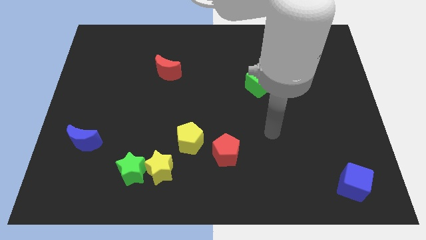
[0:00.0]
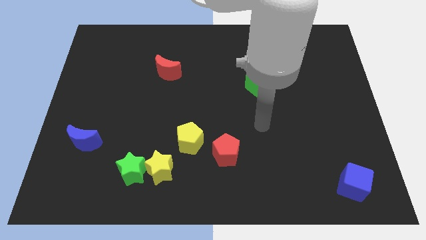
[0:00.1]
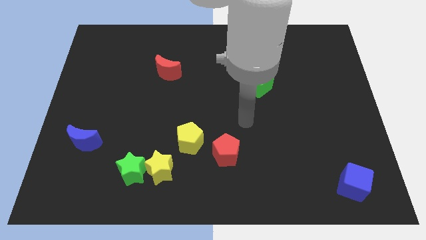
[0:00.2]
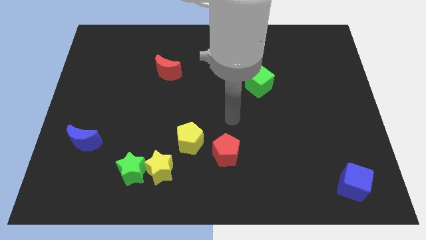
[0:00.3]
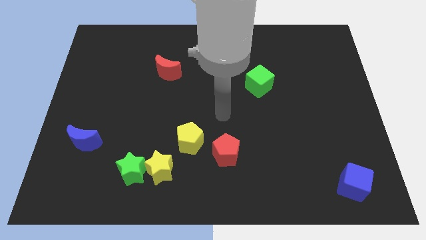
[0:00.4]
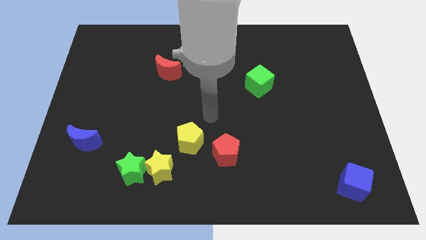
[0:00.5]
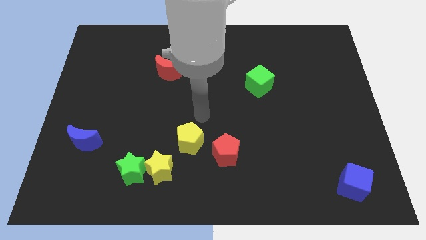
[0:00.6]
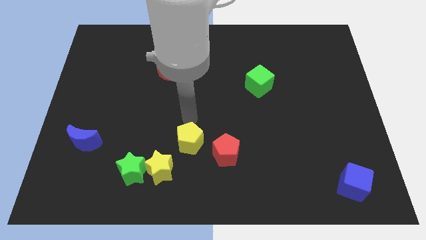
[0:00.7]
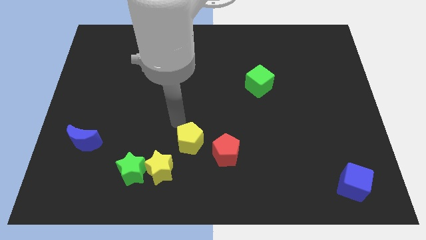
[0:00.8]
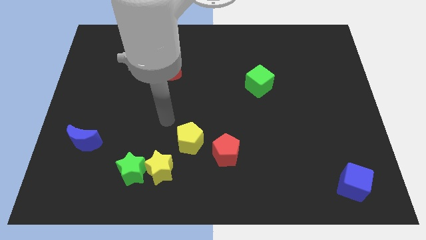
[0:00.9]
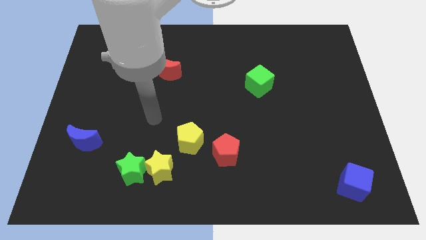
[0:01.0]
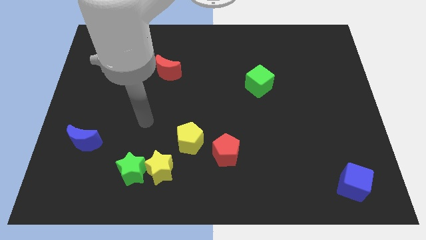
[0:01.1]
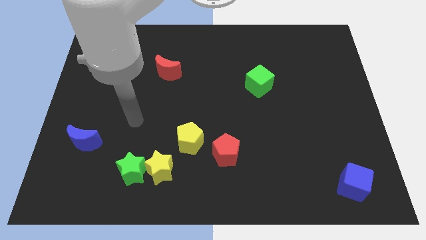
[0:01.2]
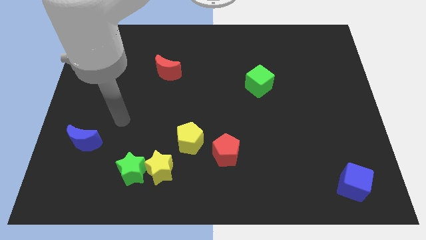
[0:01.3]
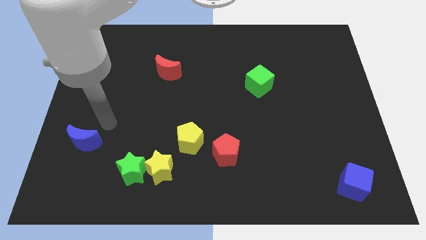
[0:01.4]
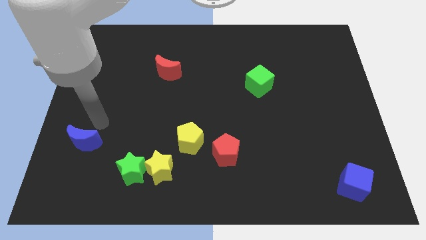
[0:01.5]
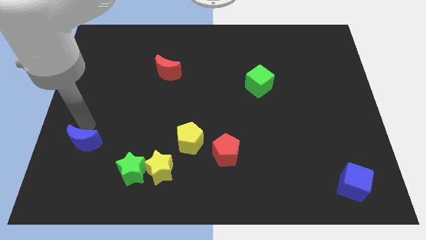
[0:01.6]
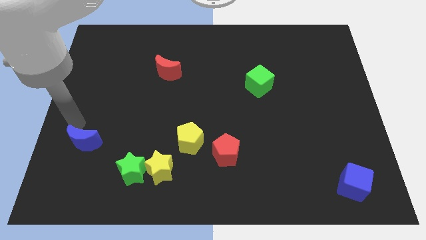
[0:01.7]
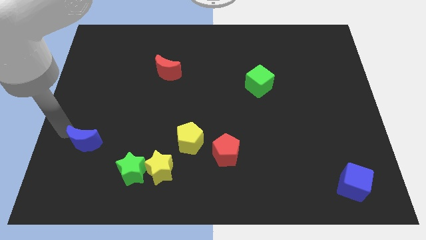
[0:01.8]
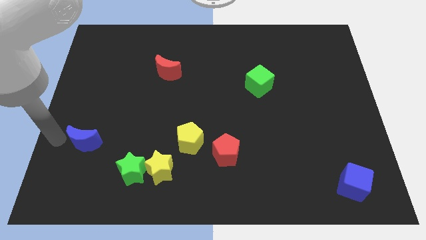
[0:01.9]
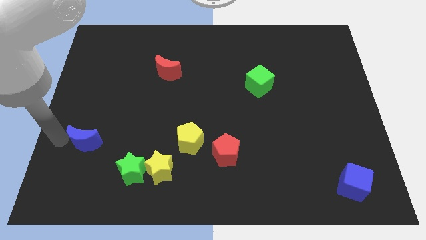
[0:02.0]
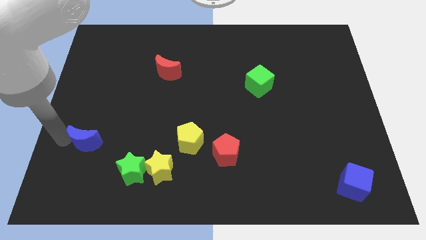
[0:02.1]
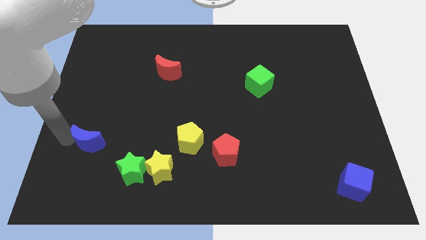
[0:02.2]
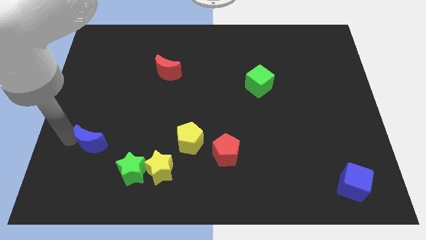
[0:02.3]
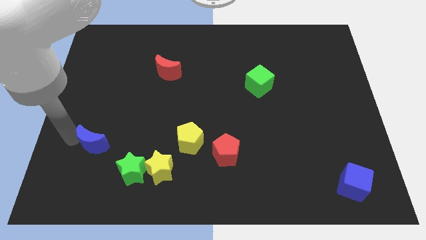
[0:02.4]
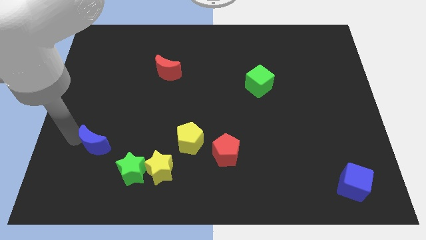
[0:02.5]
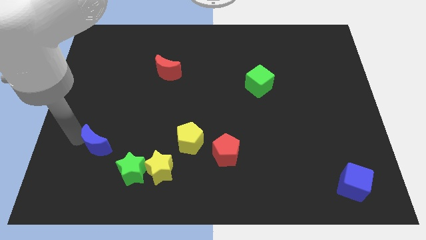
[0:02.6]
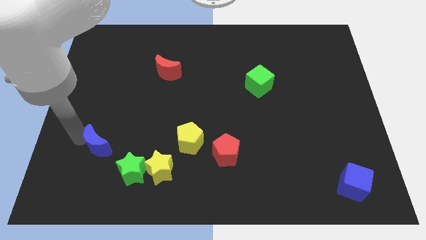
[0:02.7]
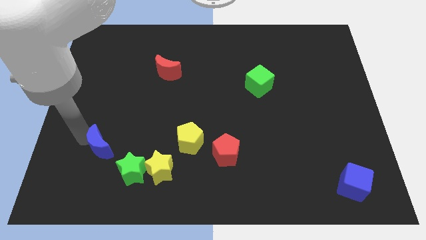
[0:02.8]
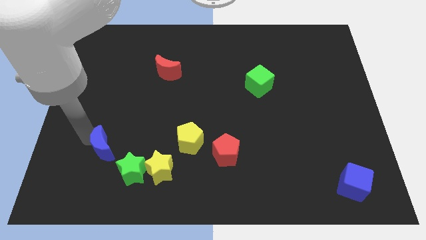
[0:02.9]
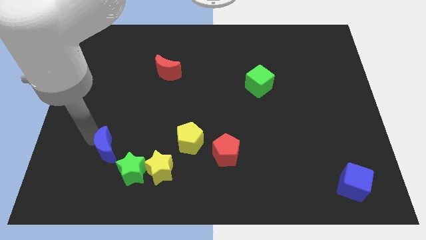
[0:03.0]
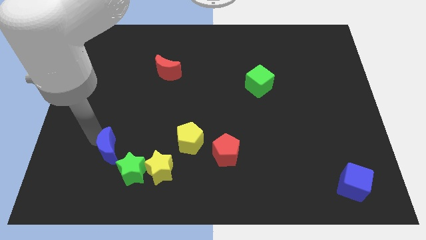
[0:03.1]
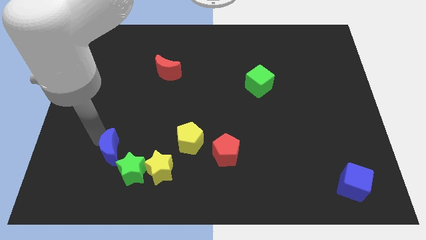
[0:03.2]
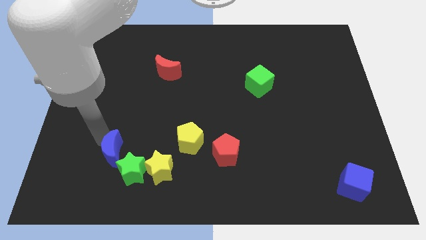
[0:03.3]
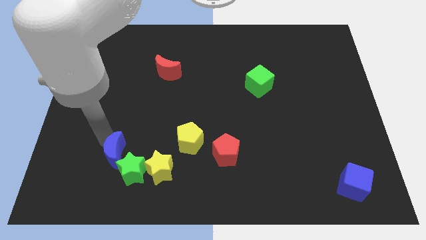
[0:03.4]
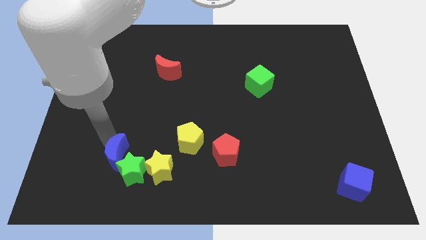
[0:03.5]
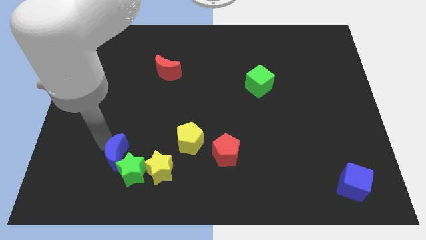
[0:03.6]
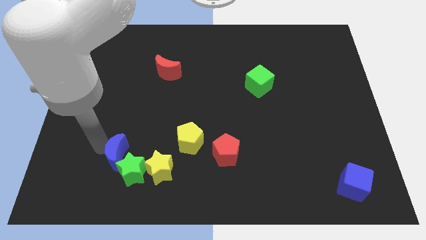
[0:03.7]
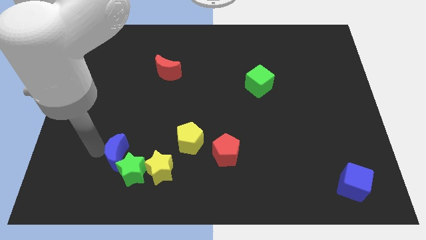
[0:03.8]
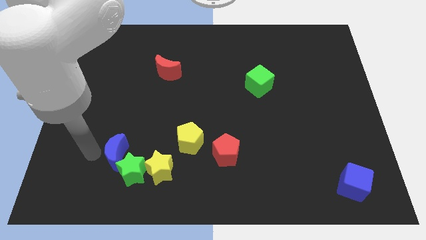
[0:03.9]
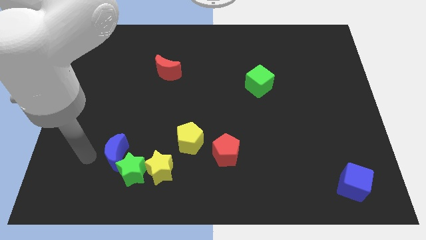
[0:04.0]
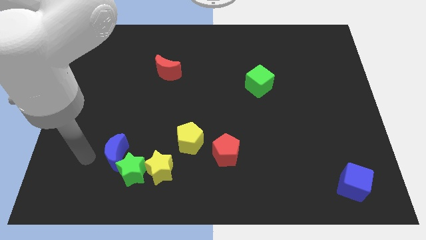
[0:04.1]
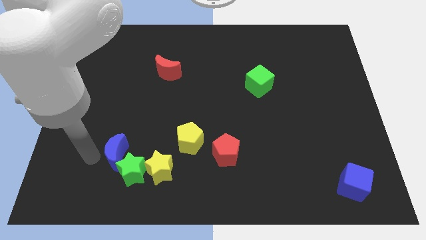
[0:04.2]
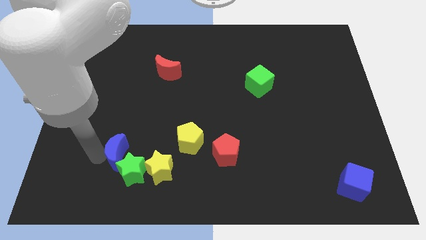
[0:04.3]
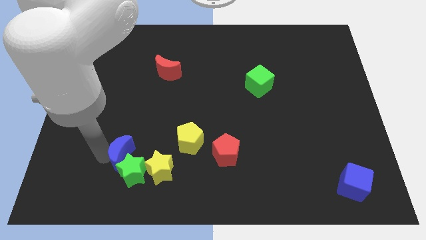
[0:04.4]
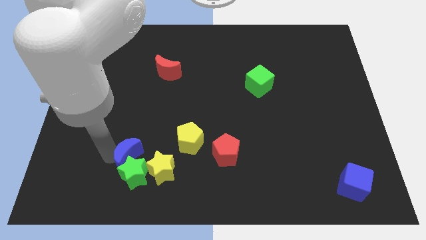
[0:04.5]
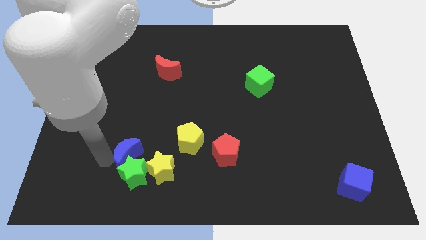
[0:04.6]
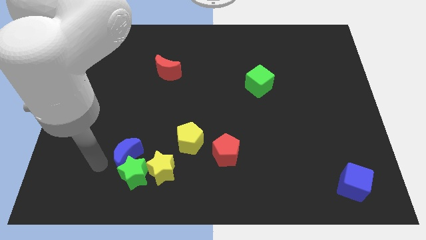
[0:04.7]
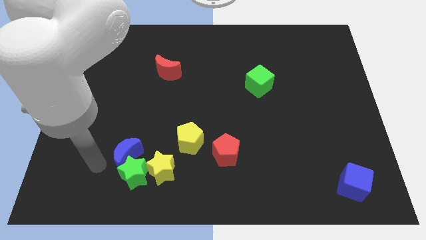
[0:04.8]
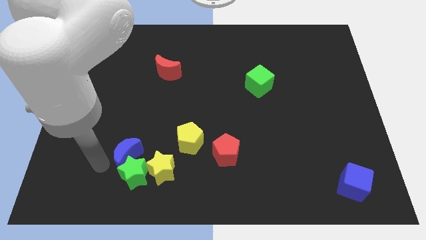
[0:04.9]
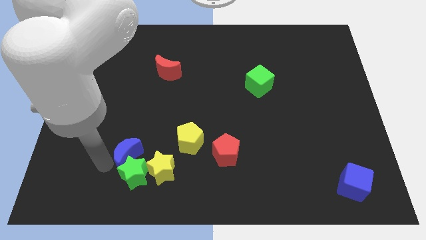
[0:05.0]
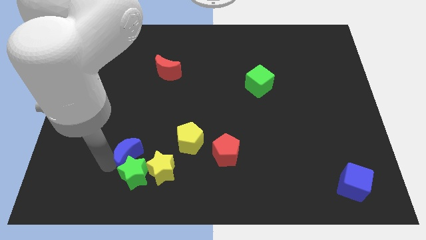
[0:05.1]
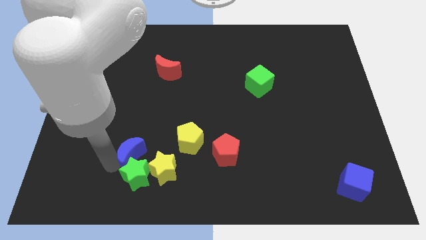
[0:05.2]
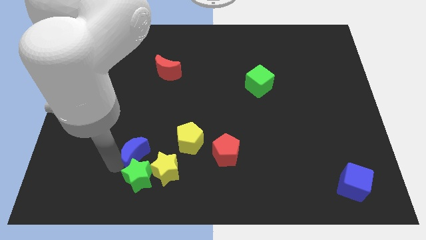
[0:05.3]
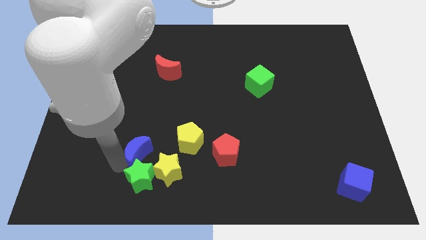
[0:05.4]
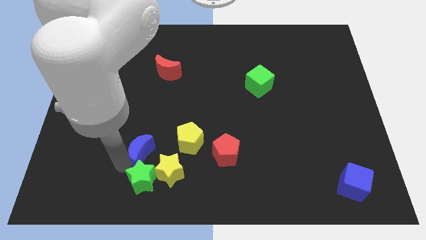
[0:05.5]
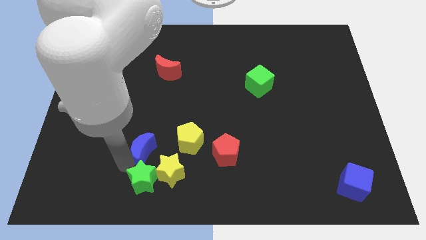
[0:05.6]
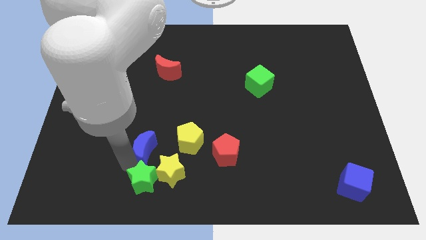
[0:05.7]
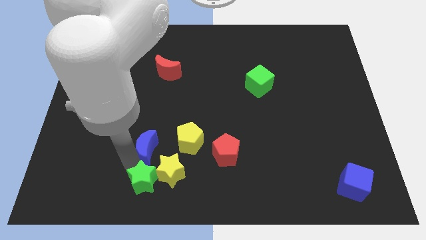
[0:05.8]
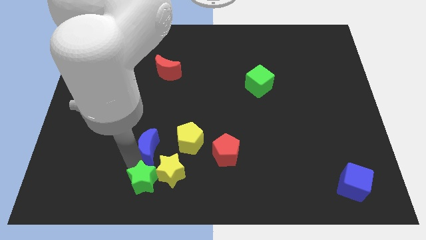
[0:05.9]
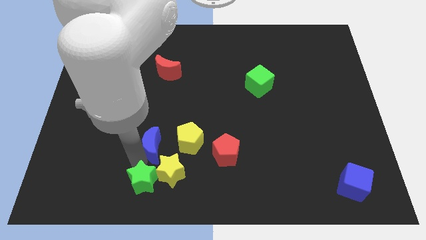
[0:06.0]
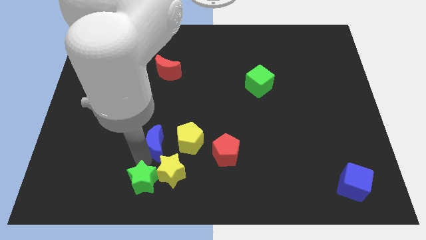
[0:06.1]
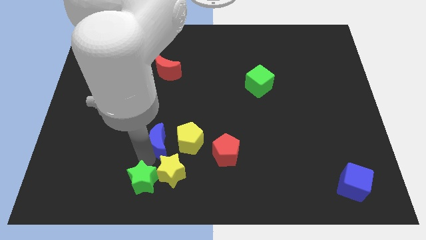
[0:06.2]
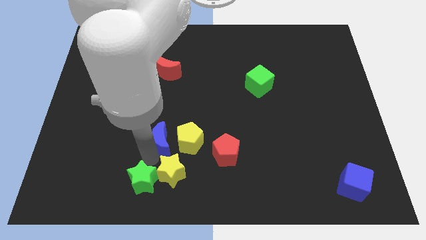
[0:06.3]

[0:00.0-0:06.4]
push the blue moon to the yellow pentagon
